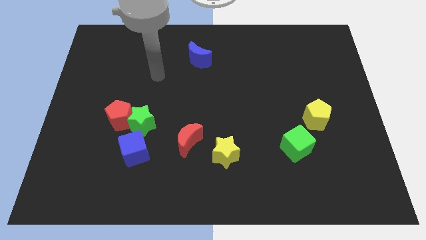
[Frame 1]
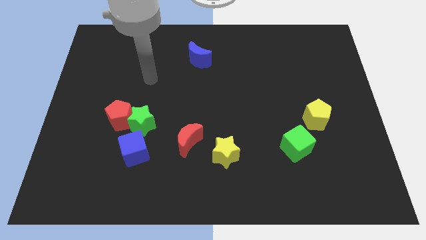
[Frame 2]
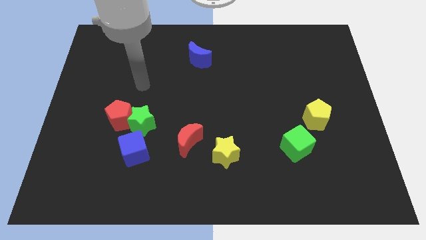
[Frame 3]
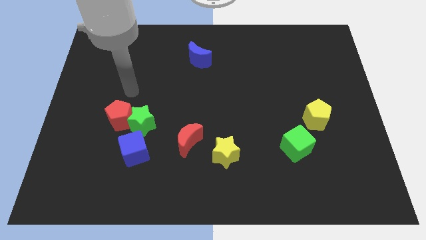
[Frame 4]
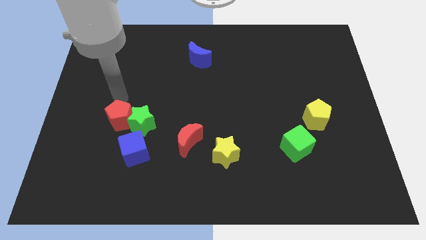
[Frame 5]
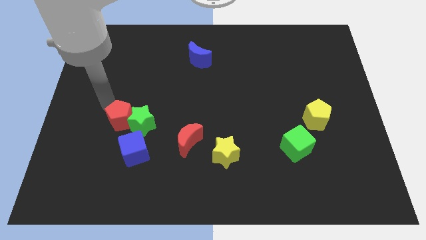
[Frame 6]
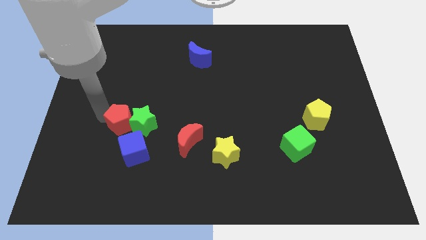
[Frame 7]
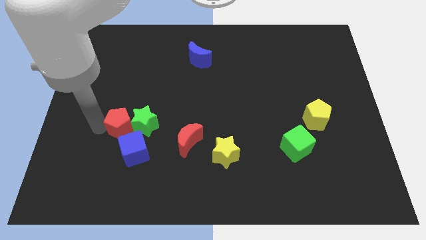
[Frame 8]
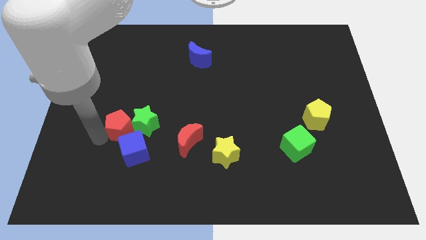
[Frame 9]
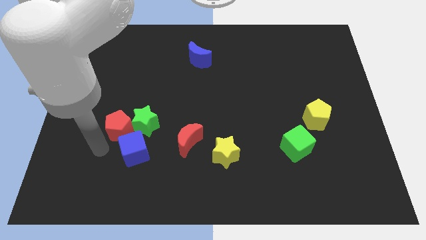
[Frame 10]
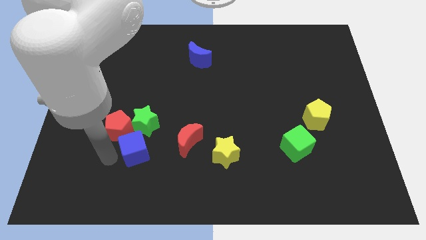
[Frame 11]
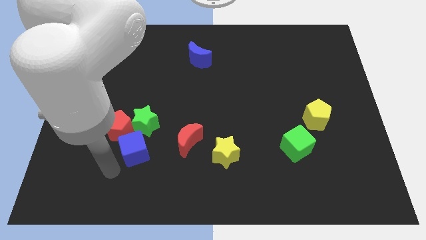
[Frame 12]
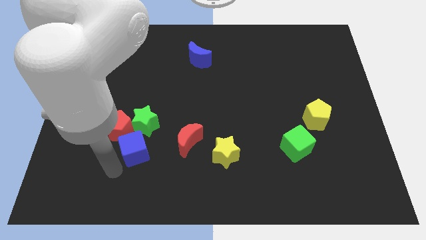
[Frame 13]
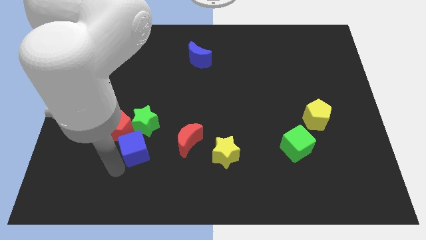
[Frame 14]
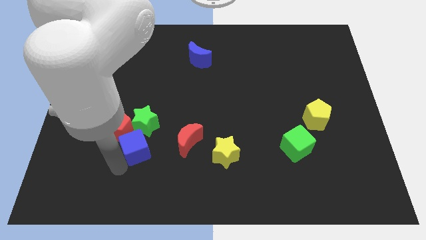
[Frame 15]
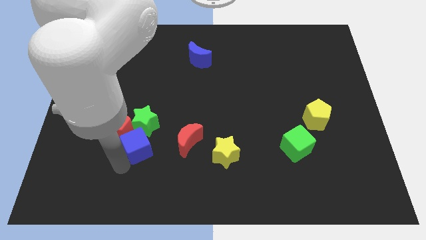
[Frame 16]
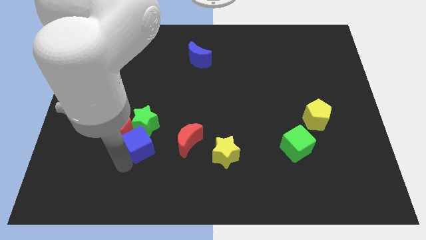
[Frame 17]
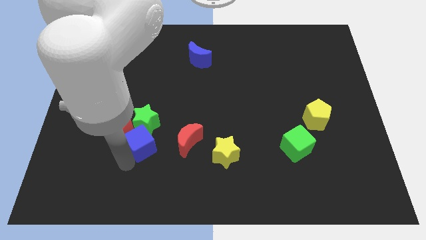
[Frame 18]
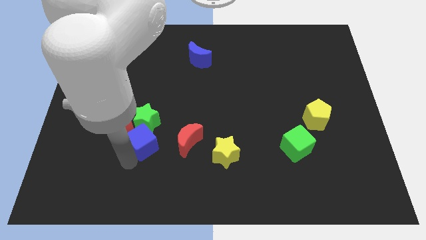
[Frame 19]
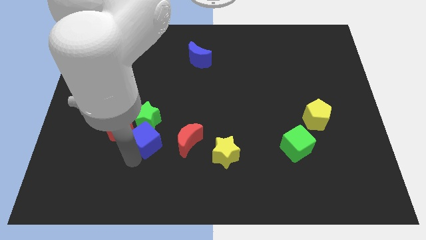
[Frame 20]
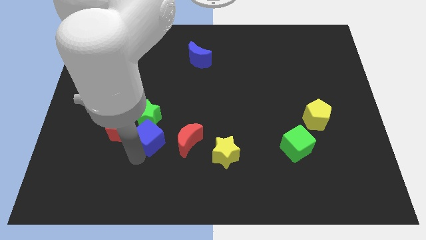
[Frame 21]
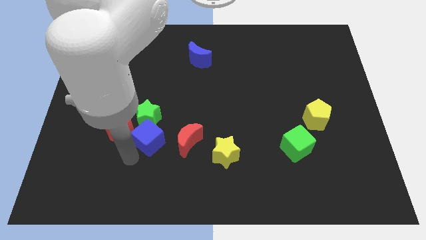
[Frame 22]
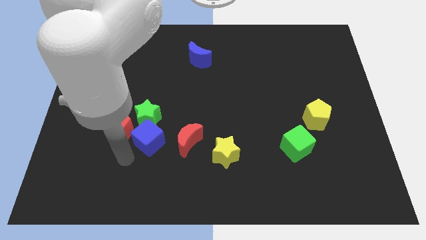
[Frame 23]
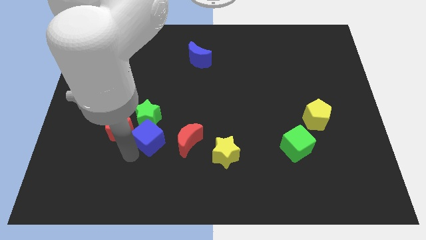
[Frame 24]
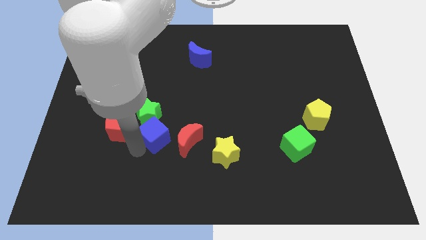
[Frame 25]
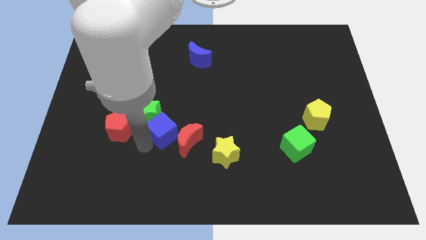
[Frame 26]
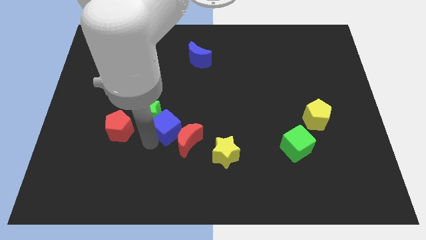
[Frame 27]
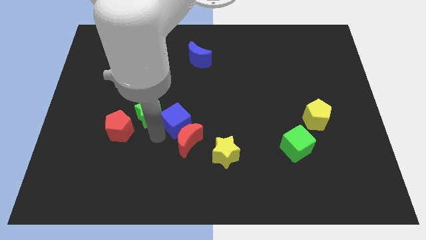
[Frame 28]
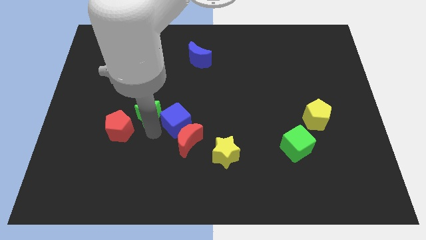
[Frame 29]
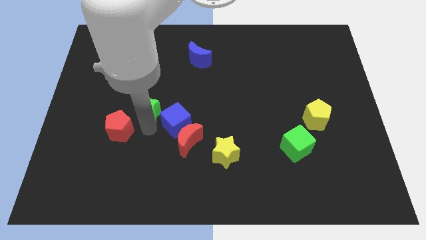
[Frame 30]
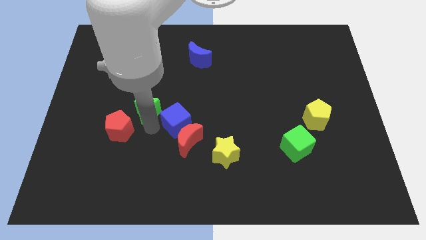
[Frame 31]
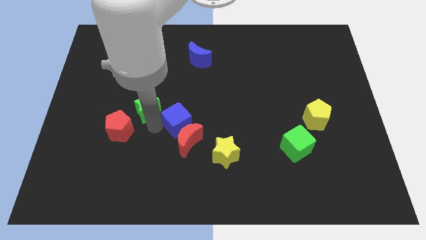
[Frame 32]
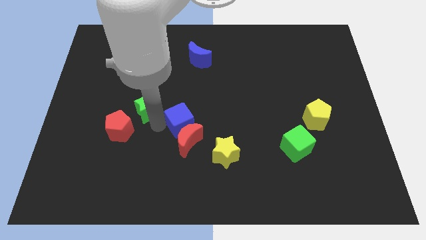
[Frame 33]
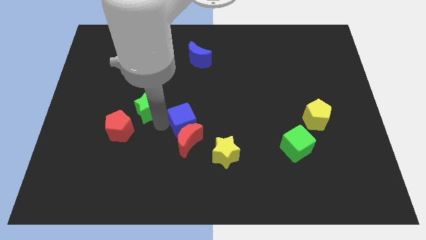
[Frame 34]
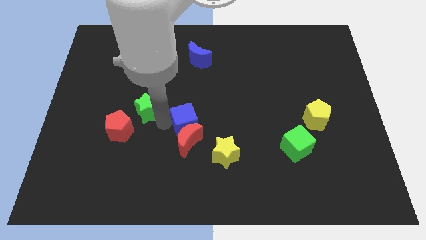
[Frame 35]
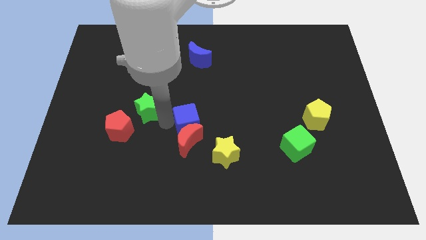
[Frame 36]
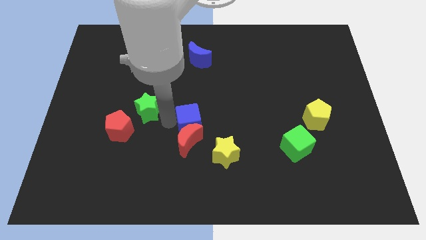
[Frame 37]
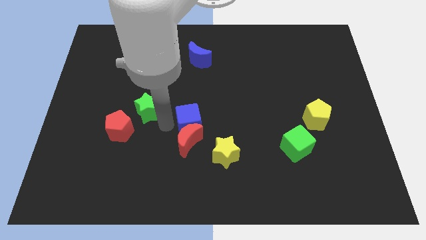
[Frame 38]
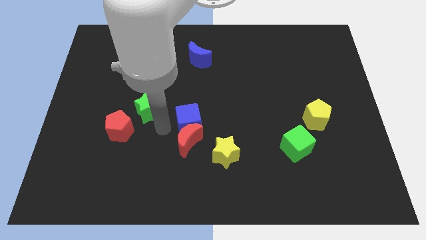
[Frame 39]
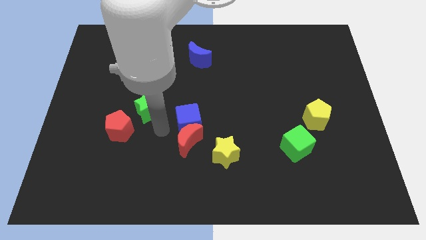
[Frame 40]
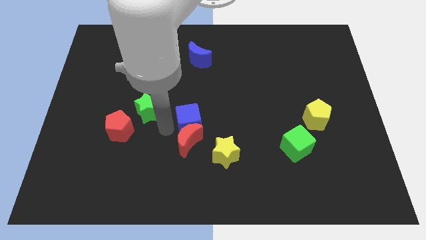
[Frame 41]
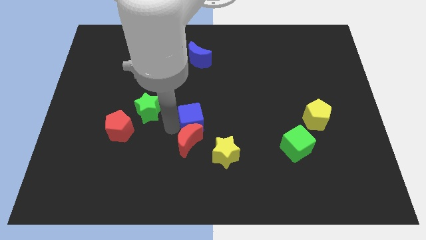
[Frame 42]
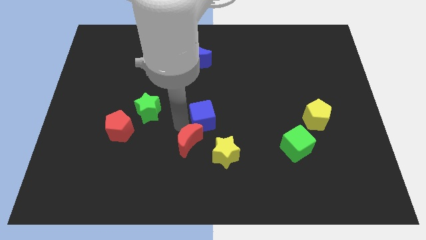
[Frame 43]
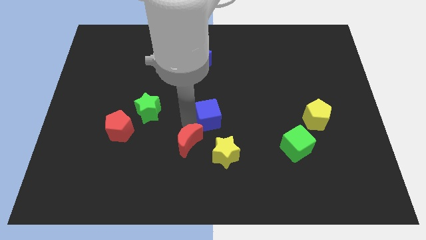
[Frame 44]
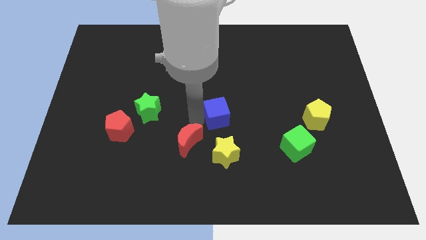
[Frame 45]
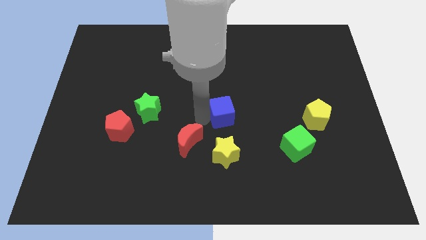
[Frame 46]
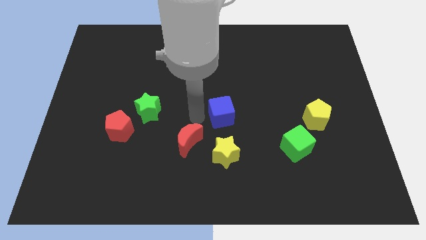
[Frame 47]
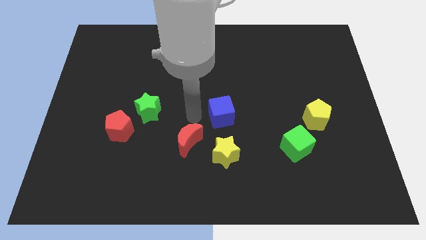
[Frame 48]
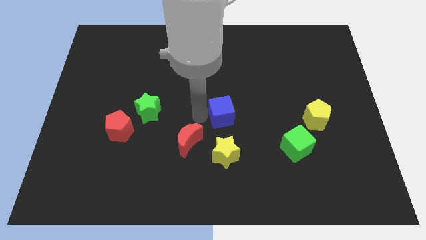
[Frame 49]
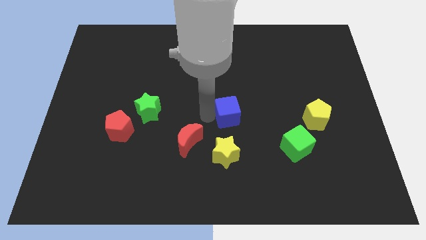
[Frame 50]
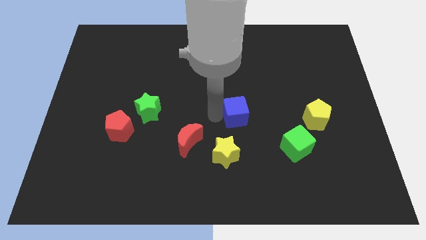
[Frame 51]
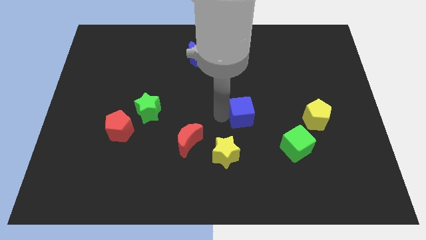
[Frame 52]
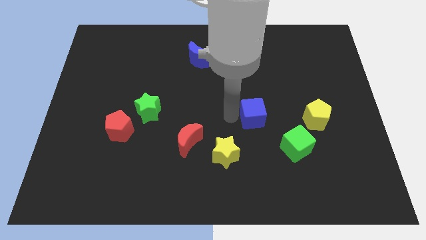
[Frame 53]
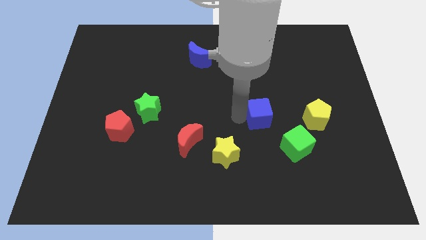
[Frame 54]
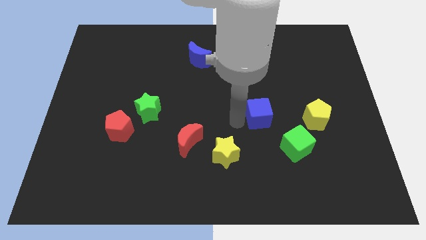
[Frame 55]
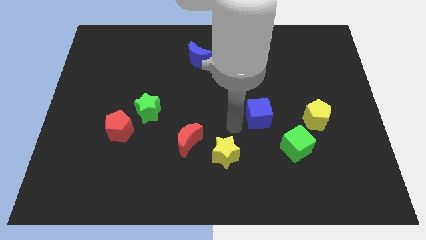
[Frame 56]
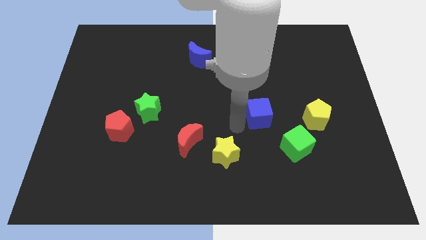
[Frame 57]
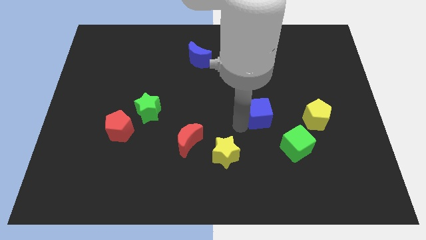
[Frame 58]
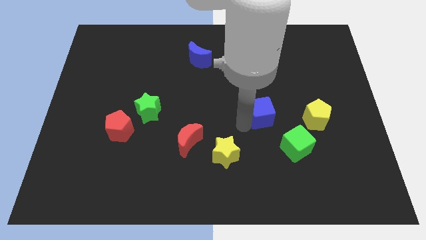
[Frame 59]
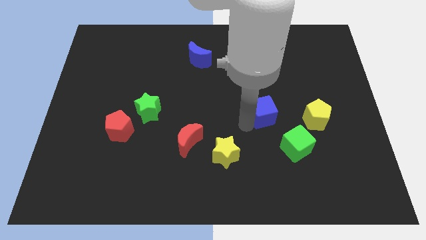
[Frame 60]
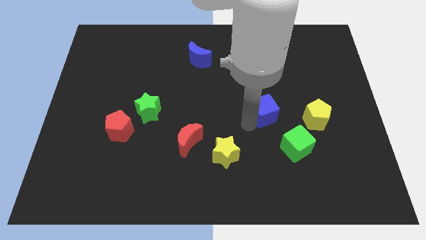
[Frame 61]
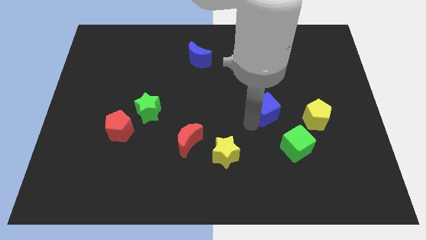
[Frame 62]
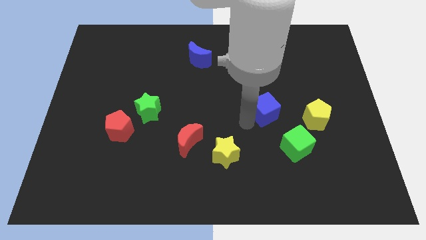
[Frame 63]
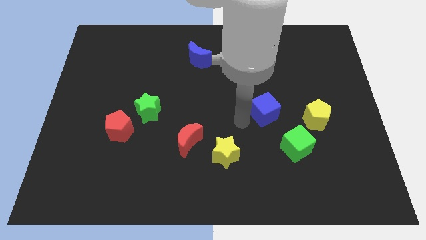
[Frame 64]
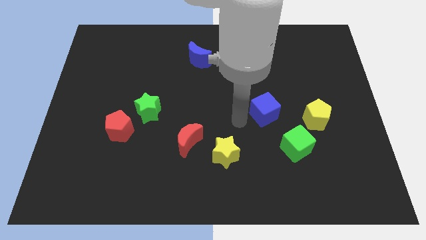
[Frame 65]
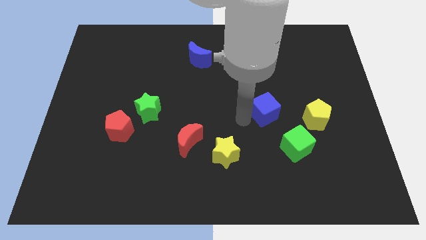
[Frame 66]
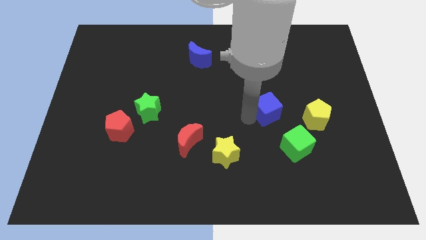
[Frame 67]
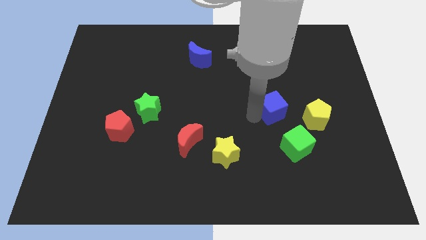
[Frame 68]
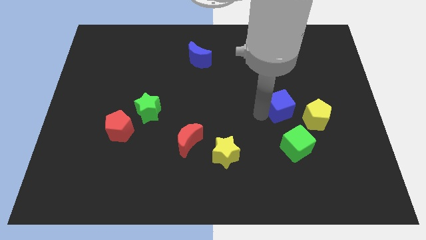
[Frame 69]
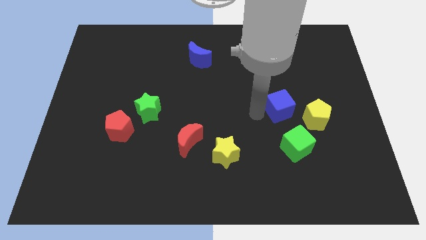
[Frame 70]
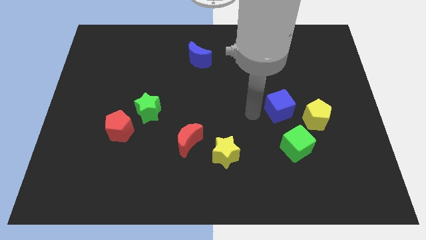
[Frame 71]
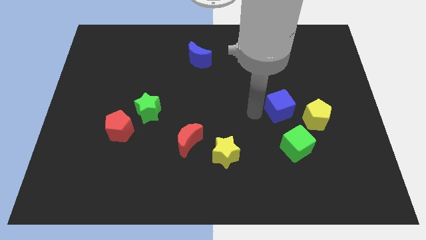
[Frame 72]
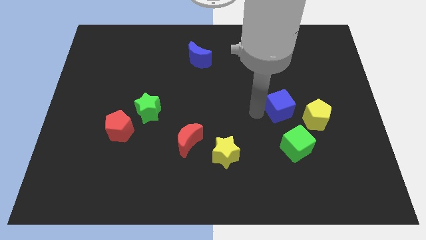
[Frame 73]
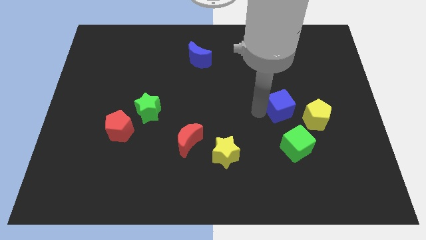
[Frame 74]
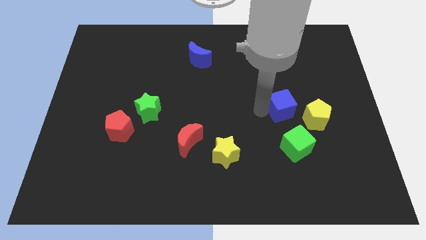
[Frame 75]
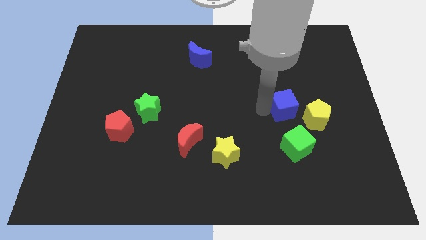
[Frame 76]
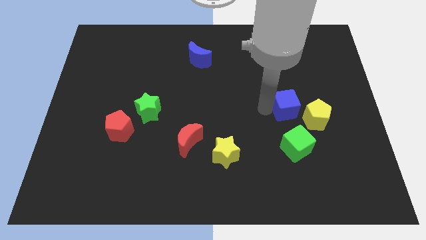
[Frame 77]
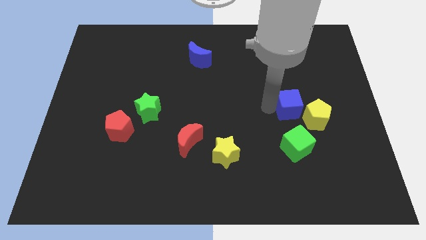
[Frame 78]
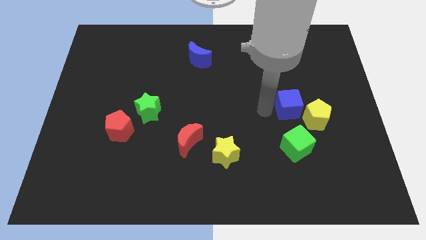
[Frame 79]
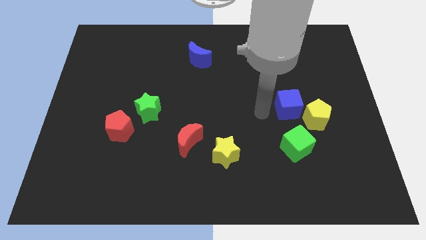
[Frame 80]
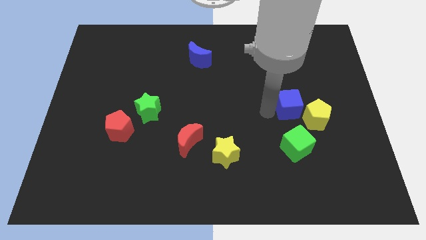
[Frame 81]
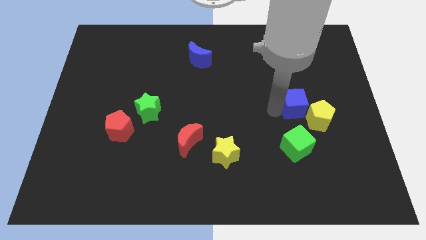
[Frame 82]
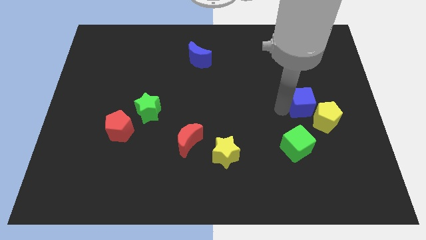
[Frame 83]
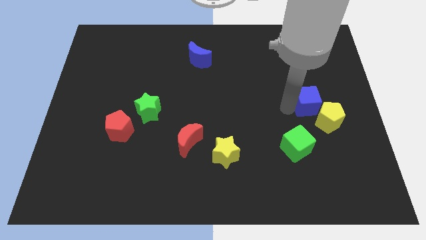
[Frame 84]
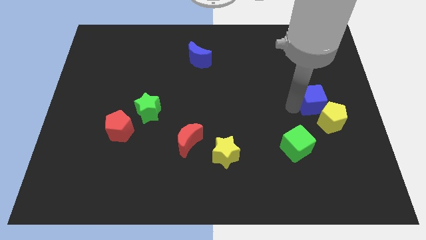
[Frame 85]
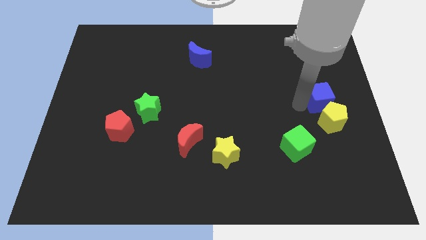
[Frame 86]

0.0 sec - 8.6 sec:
put the blue cube to the center right
